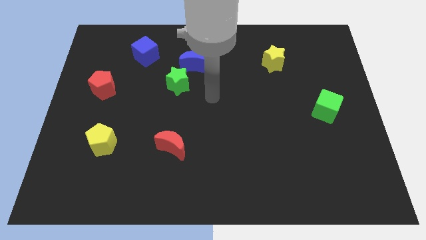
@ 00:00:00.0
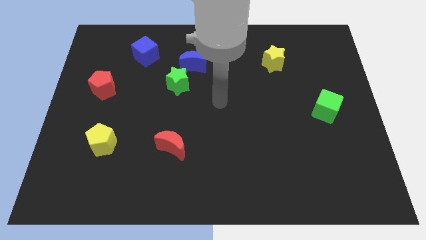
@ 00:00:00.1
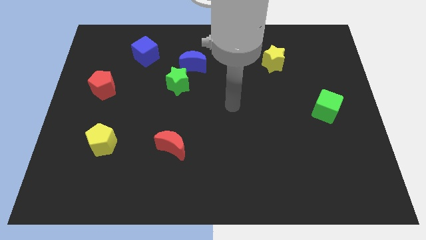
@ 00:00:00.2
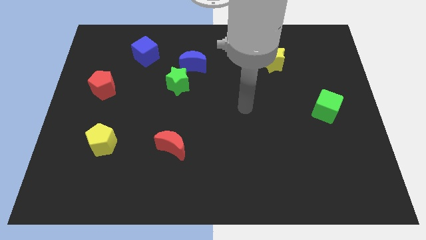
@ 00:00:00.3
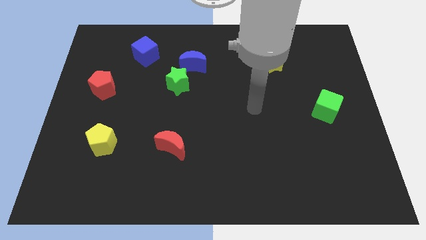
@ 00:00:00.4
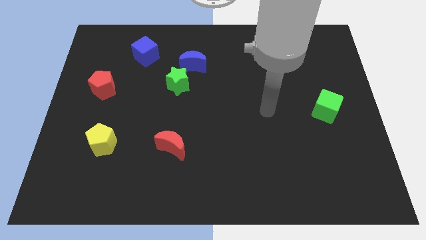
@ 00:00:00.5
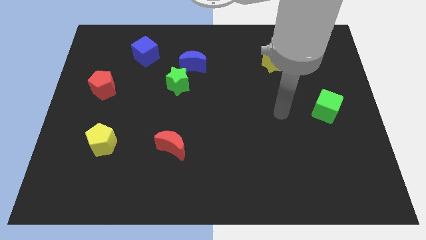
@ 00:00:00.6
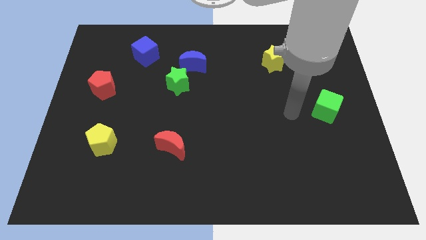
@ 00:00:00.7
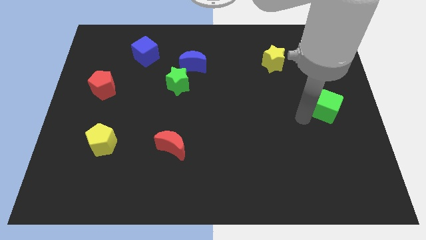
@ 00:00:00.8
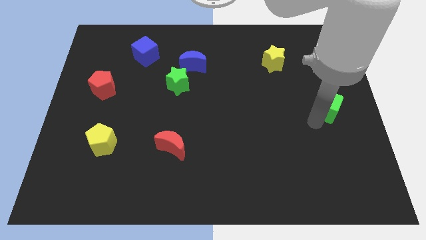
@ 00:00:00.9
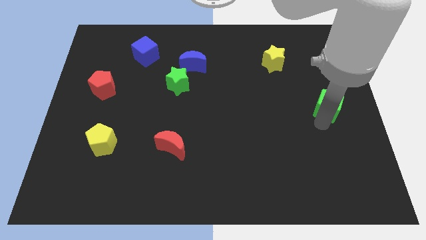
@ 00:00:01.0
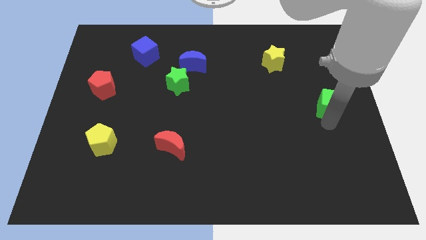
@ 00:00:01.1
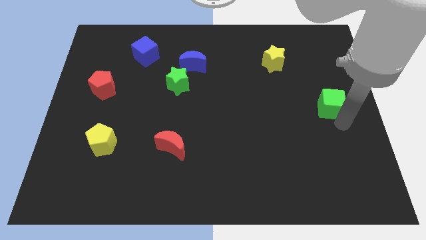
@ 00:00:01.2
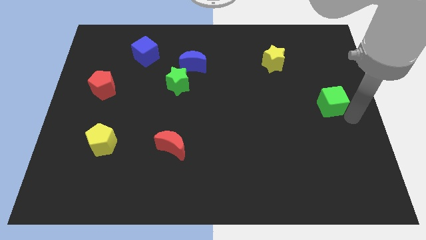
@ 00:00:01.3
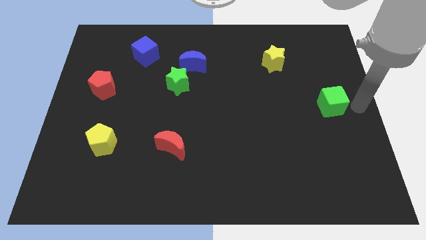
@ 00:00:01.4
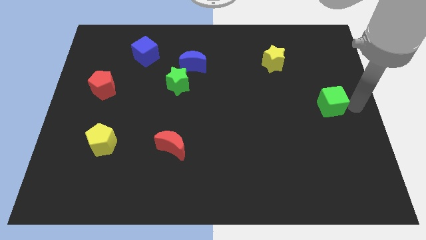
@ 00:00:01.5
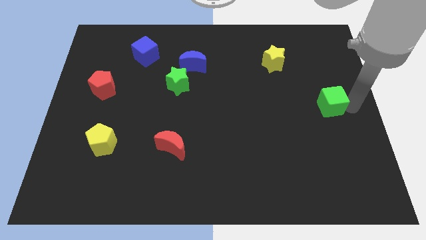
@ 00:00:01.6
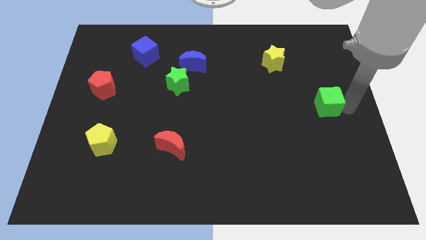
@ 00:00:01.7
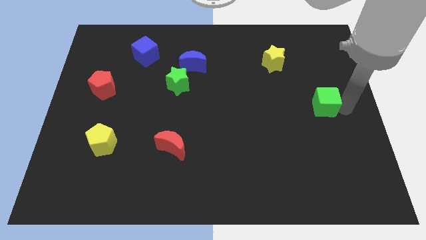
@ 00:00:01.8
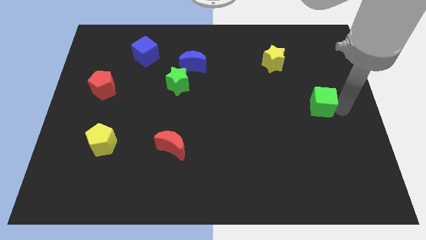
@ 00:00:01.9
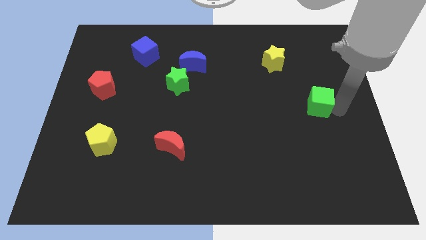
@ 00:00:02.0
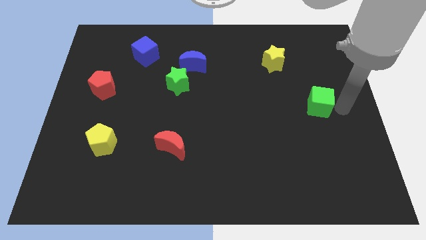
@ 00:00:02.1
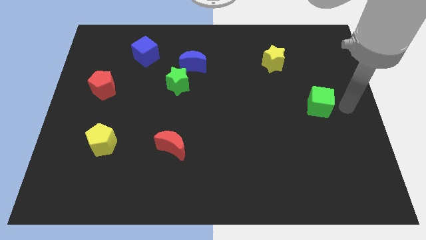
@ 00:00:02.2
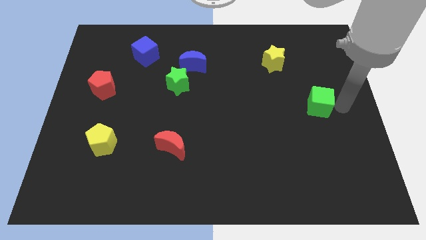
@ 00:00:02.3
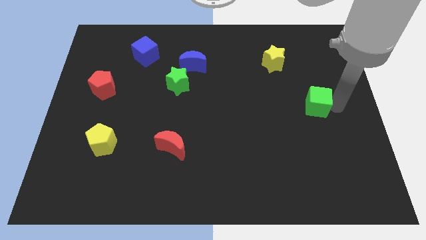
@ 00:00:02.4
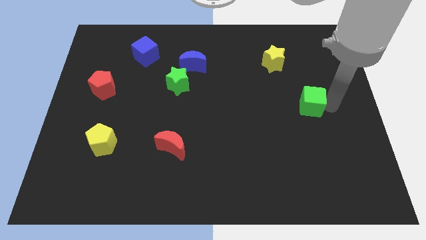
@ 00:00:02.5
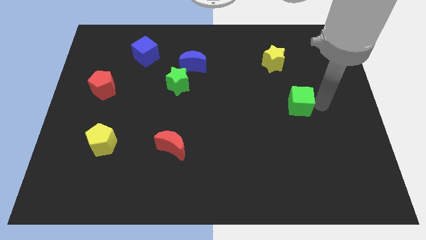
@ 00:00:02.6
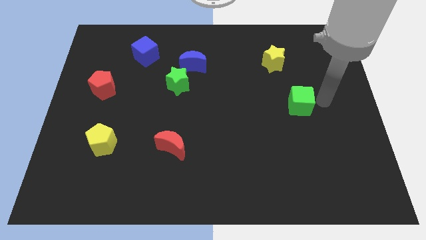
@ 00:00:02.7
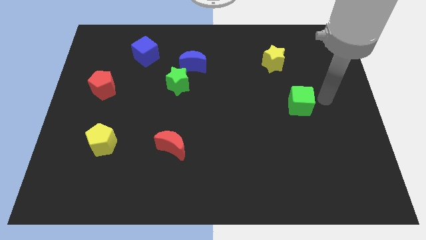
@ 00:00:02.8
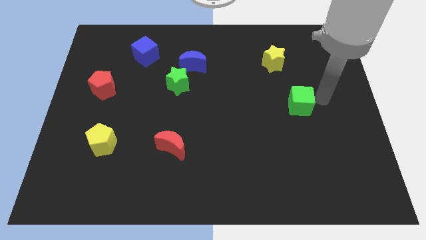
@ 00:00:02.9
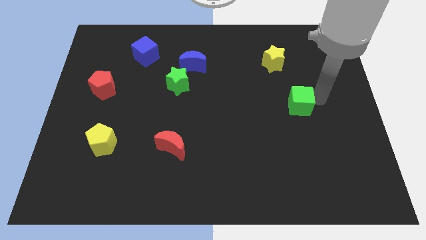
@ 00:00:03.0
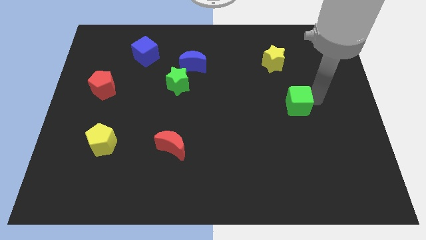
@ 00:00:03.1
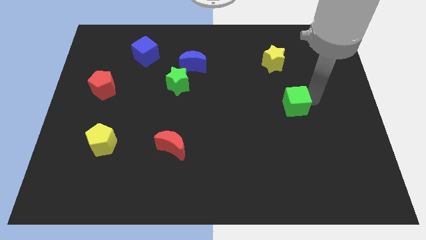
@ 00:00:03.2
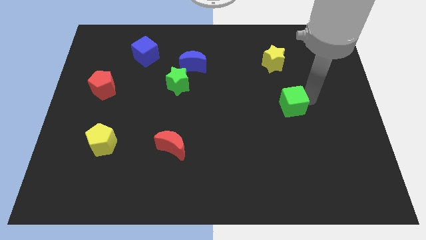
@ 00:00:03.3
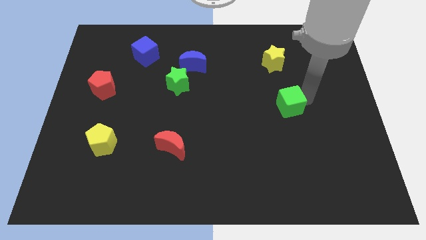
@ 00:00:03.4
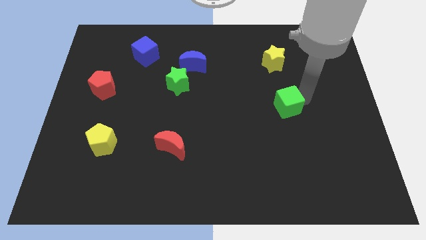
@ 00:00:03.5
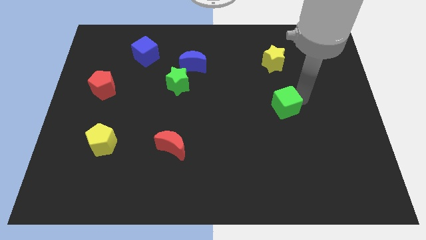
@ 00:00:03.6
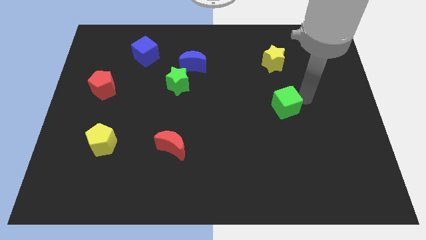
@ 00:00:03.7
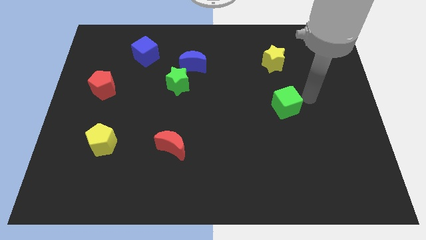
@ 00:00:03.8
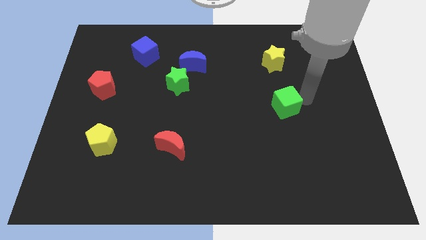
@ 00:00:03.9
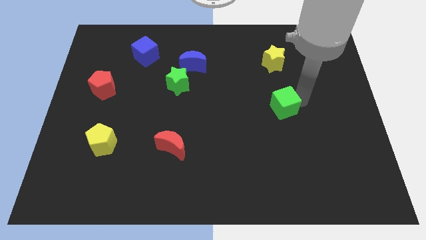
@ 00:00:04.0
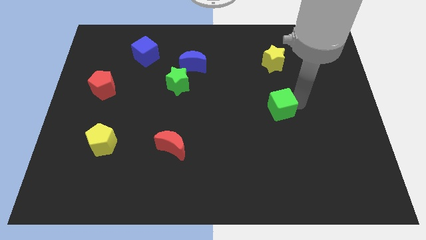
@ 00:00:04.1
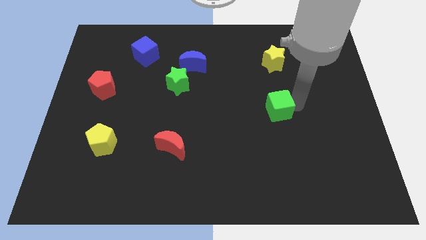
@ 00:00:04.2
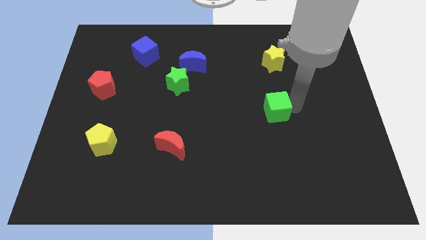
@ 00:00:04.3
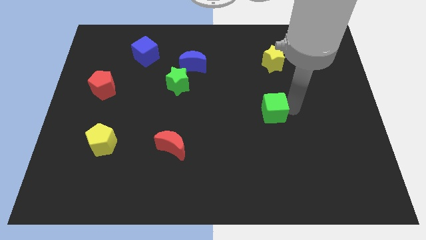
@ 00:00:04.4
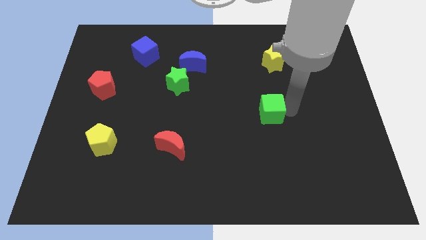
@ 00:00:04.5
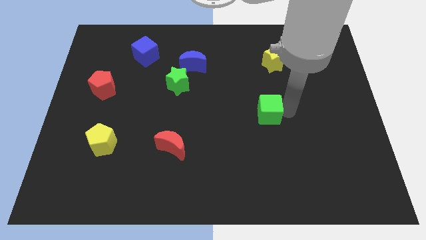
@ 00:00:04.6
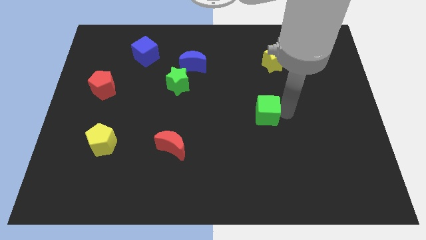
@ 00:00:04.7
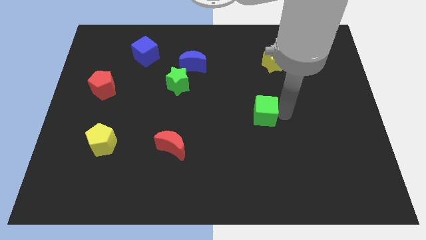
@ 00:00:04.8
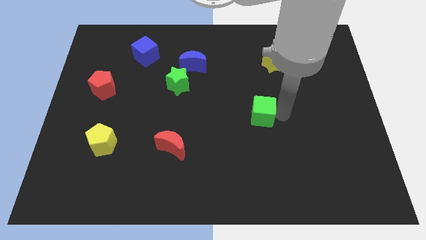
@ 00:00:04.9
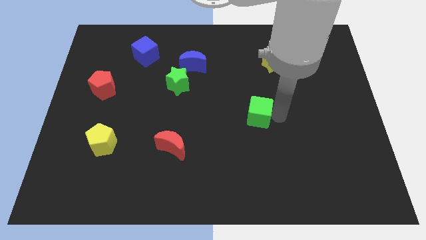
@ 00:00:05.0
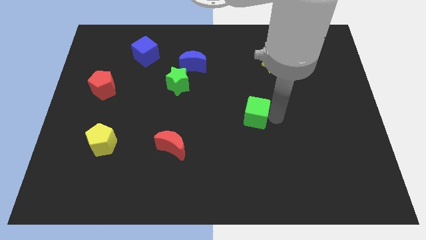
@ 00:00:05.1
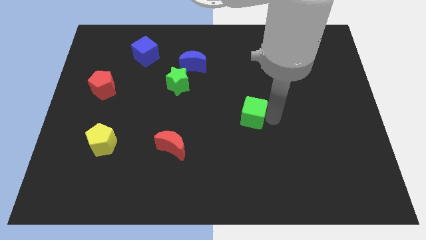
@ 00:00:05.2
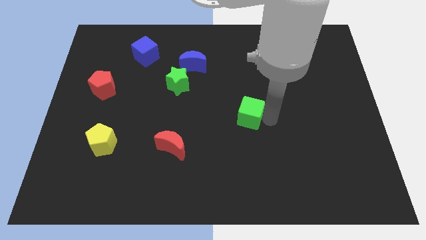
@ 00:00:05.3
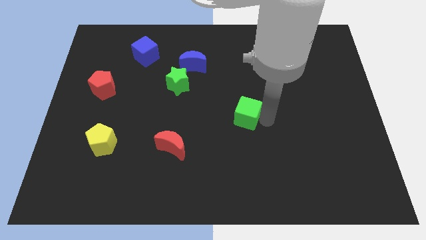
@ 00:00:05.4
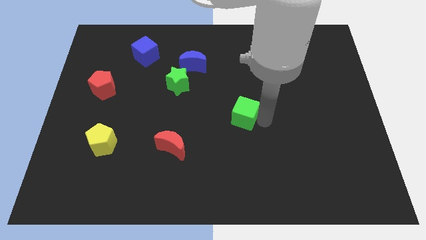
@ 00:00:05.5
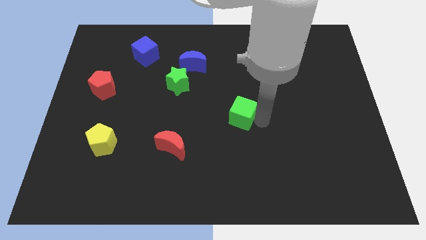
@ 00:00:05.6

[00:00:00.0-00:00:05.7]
move the green cube left

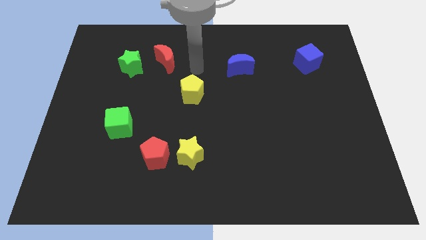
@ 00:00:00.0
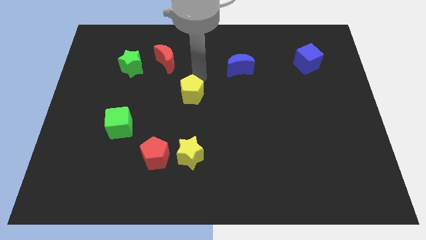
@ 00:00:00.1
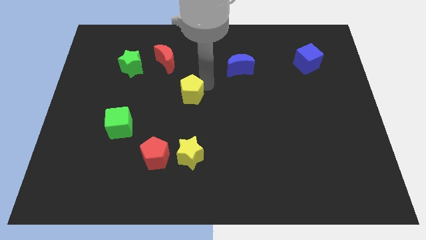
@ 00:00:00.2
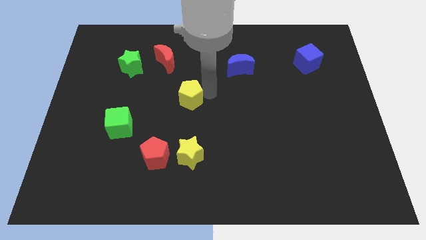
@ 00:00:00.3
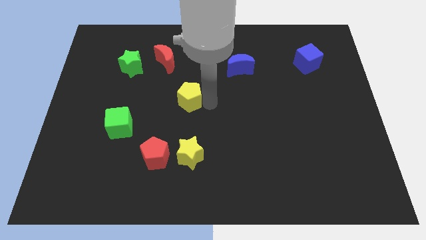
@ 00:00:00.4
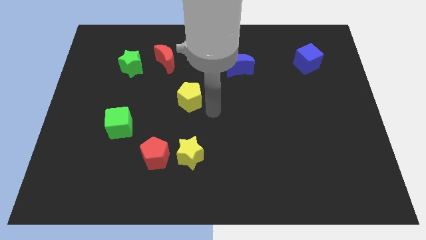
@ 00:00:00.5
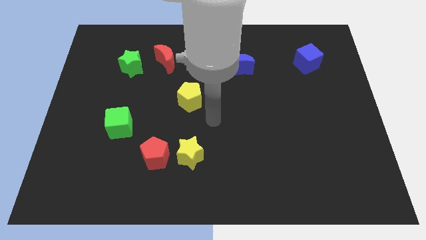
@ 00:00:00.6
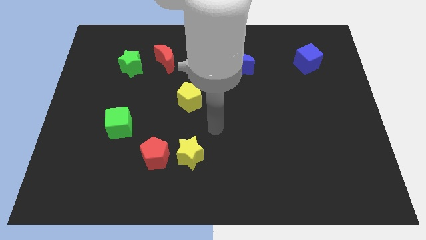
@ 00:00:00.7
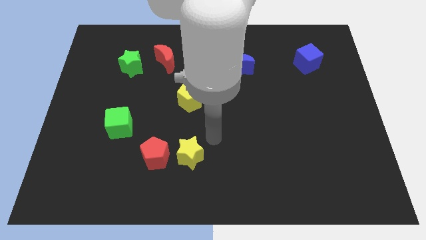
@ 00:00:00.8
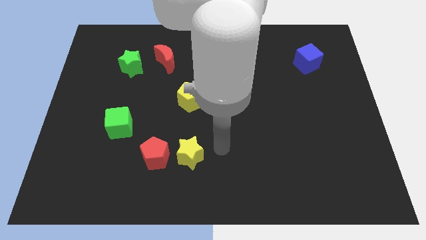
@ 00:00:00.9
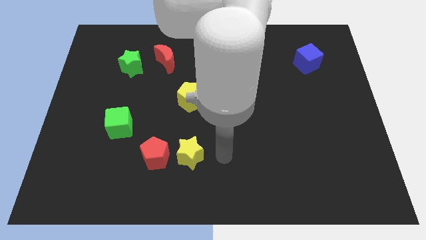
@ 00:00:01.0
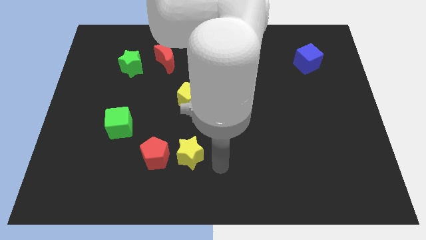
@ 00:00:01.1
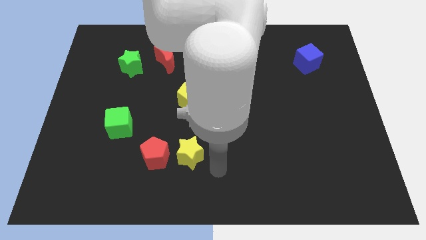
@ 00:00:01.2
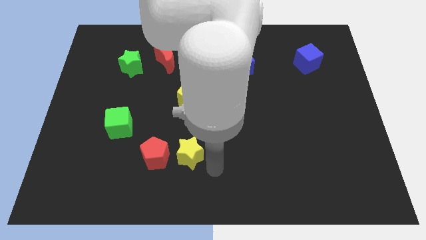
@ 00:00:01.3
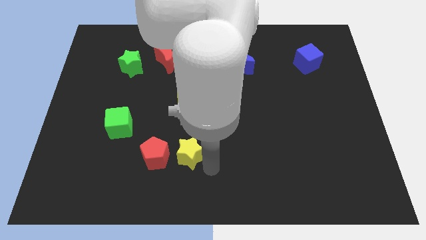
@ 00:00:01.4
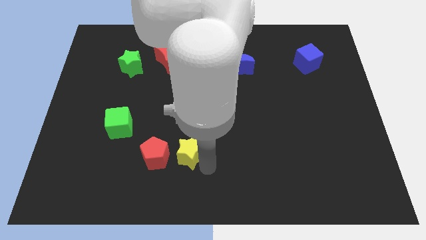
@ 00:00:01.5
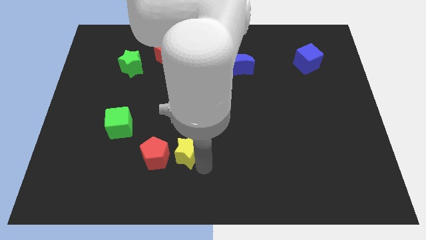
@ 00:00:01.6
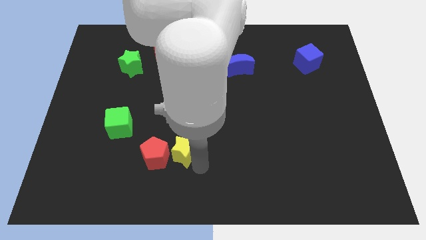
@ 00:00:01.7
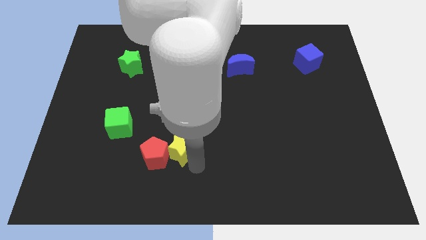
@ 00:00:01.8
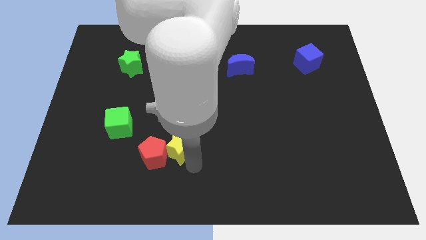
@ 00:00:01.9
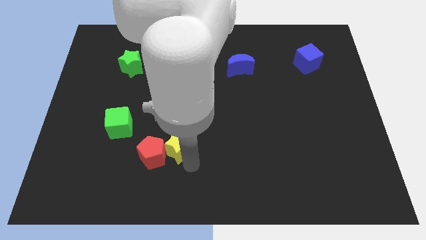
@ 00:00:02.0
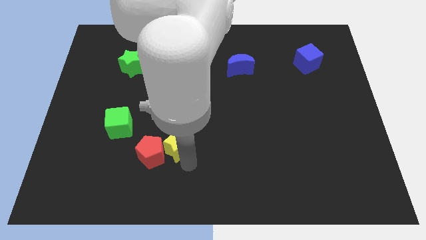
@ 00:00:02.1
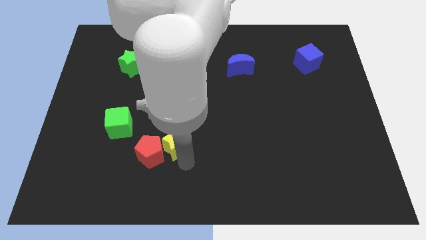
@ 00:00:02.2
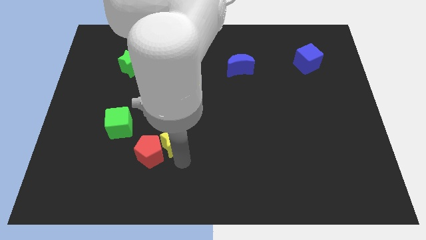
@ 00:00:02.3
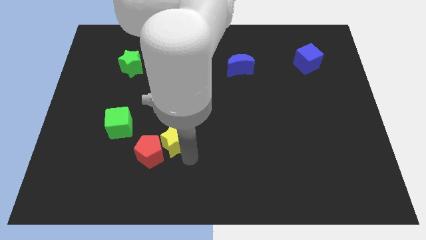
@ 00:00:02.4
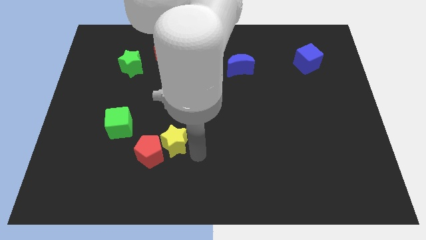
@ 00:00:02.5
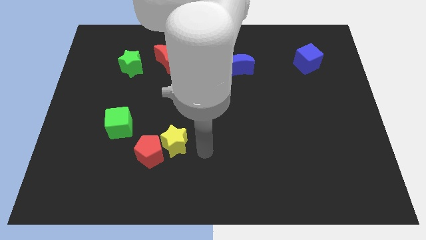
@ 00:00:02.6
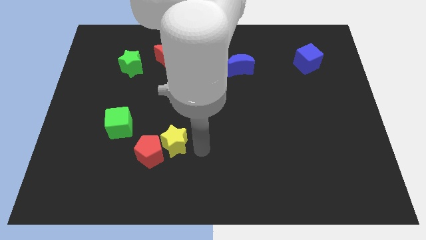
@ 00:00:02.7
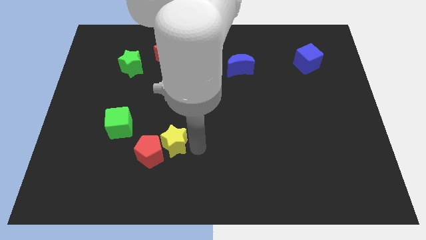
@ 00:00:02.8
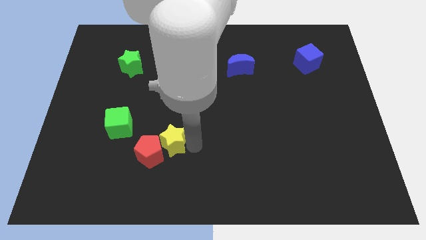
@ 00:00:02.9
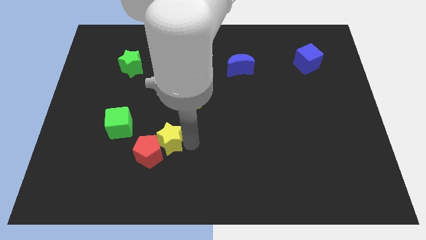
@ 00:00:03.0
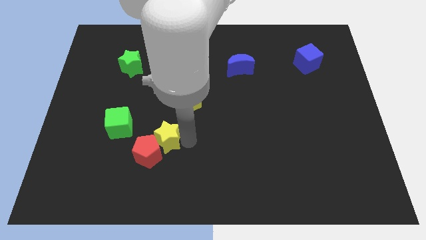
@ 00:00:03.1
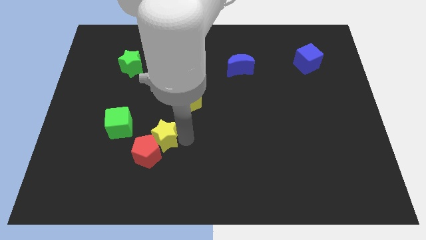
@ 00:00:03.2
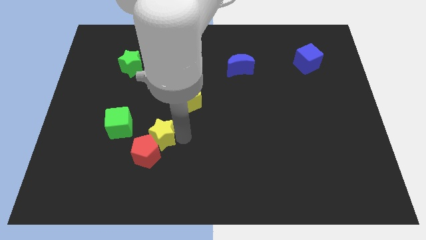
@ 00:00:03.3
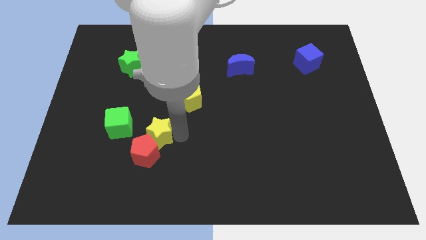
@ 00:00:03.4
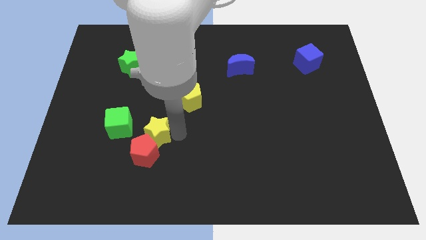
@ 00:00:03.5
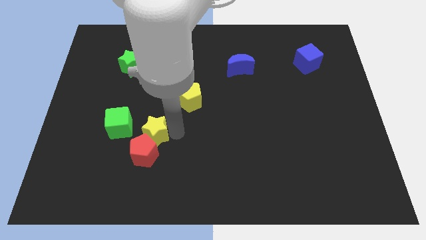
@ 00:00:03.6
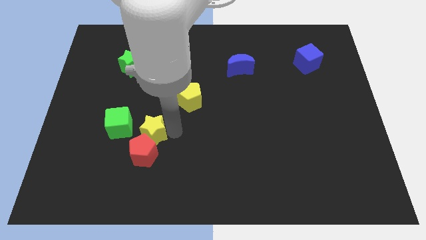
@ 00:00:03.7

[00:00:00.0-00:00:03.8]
push the yellow star somewhat to the left
